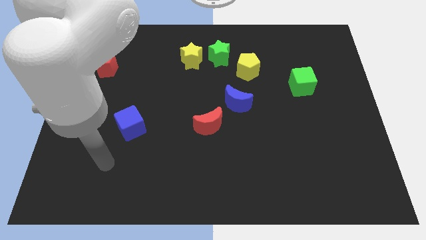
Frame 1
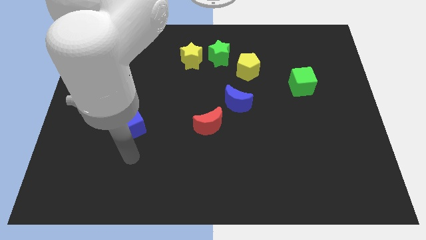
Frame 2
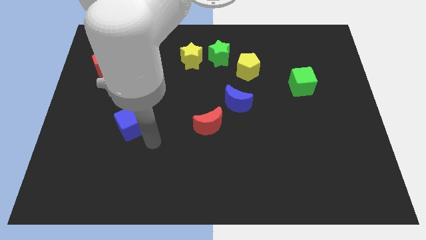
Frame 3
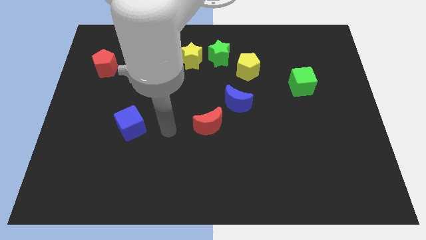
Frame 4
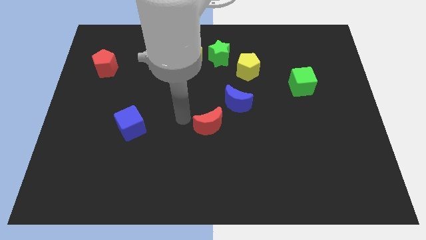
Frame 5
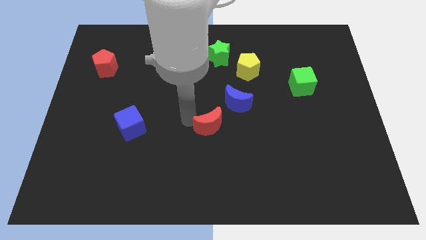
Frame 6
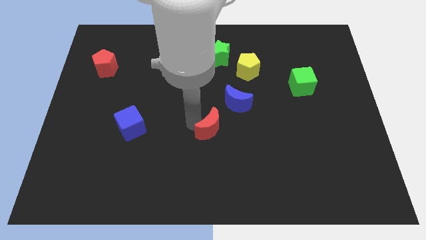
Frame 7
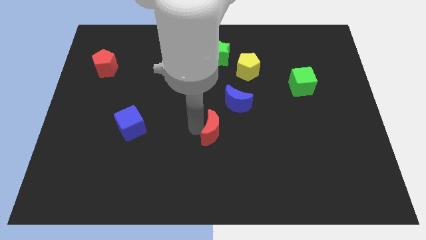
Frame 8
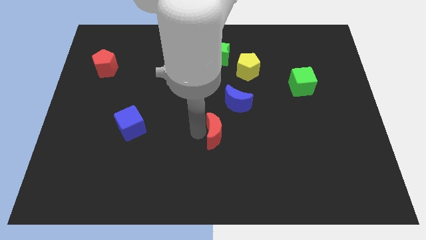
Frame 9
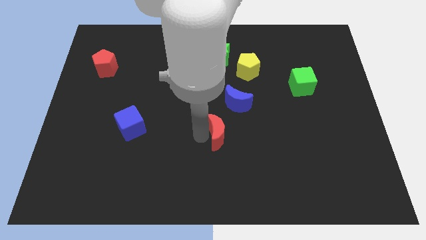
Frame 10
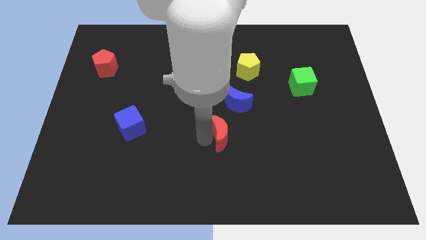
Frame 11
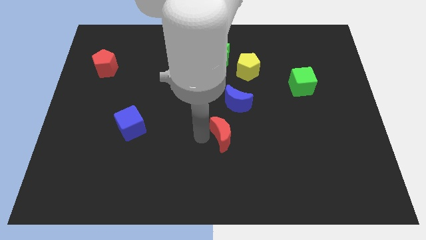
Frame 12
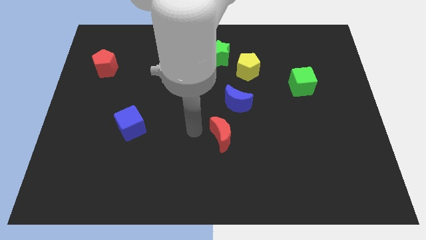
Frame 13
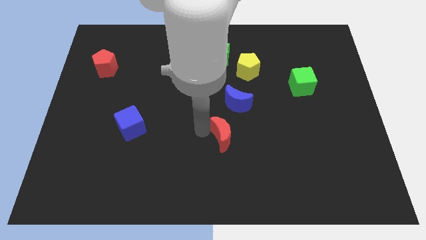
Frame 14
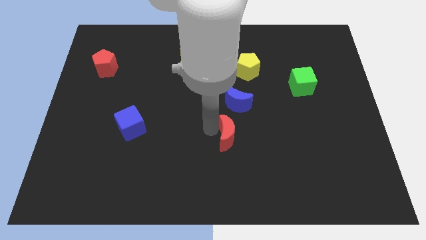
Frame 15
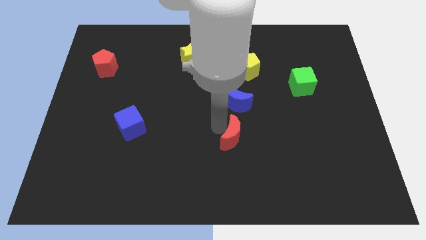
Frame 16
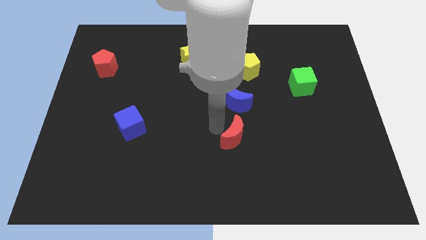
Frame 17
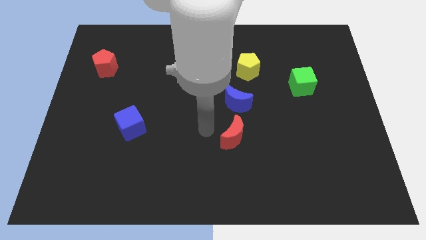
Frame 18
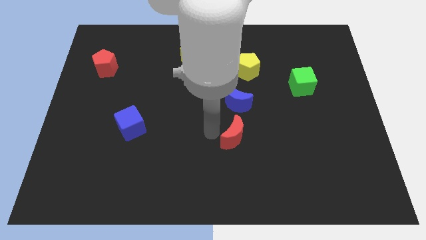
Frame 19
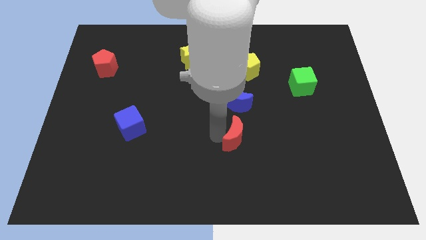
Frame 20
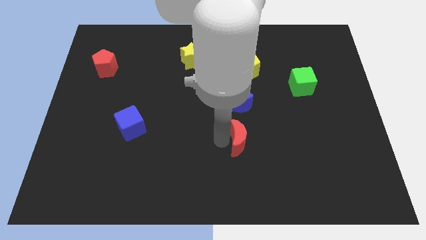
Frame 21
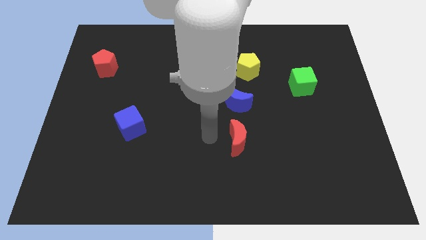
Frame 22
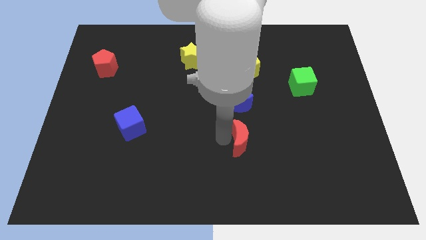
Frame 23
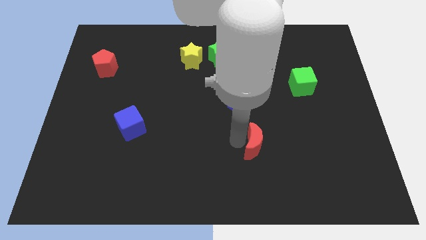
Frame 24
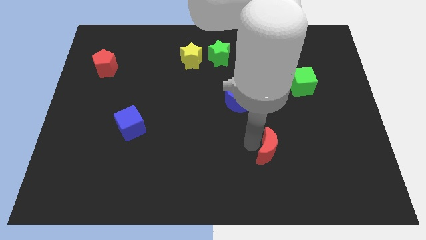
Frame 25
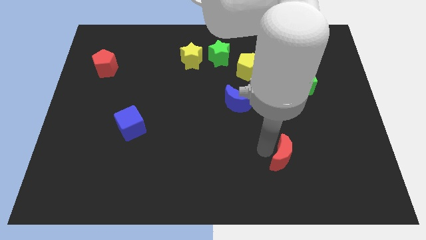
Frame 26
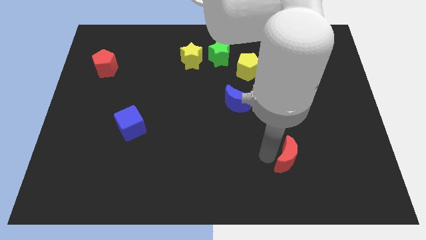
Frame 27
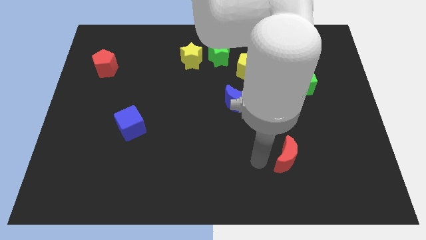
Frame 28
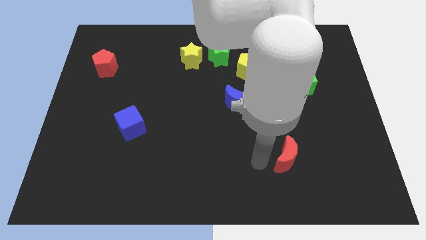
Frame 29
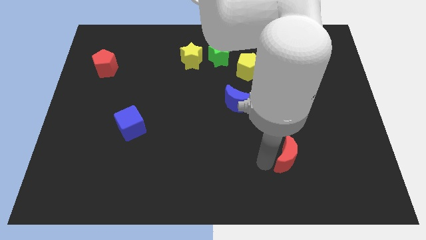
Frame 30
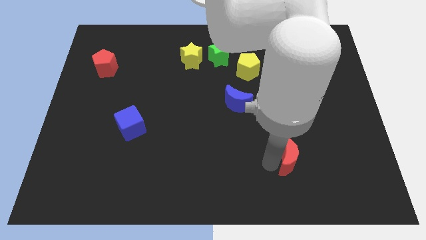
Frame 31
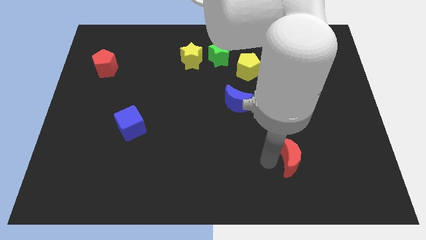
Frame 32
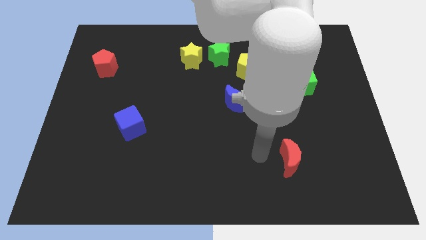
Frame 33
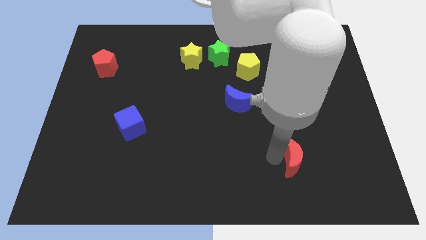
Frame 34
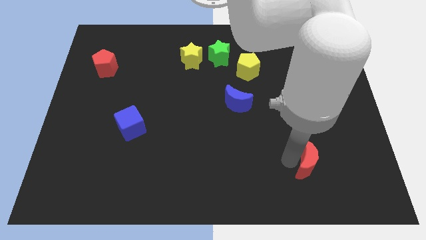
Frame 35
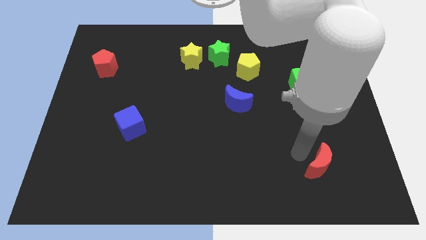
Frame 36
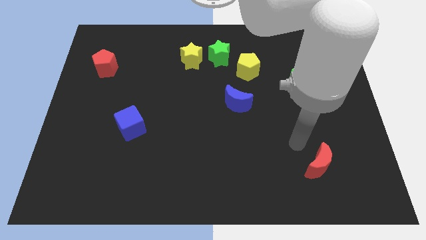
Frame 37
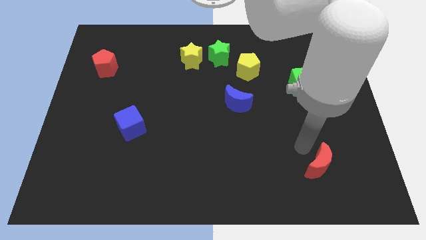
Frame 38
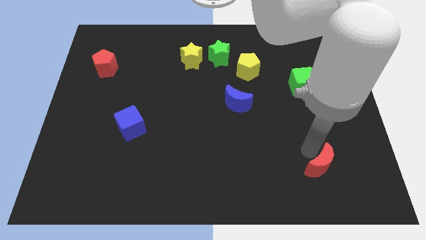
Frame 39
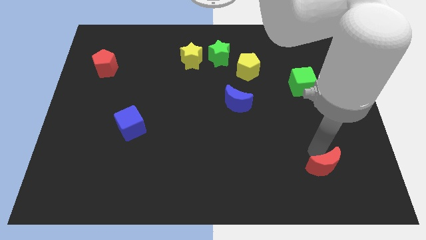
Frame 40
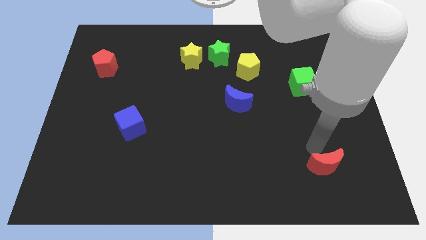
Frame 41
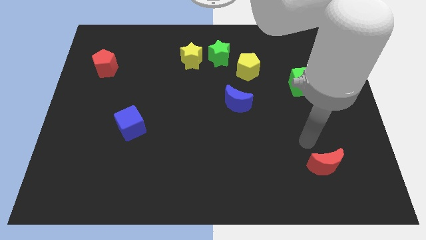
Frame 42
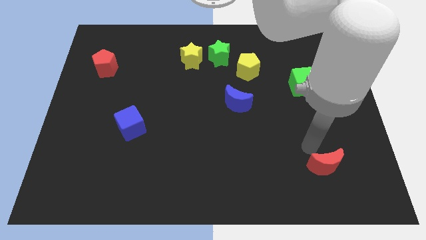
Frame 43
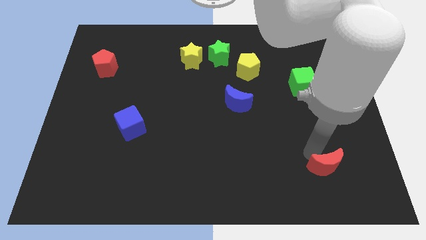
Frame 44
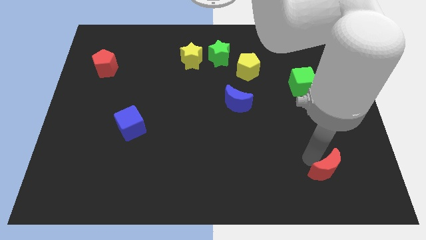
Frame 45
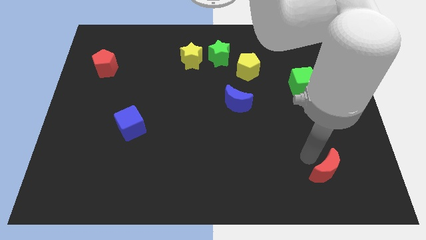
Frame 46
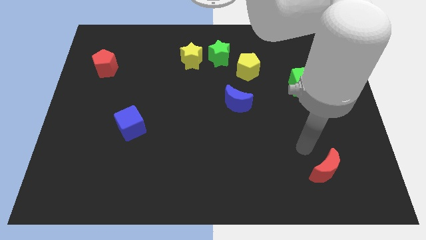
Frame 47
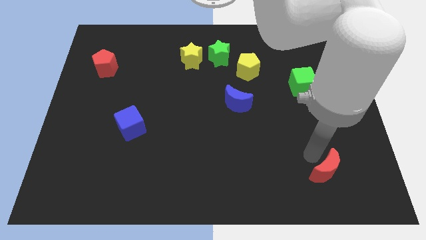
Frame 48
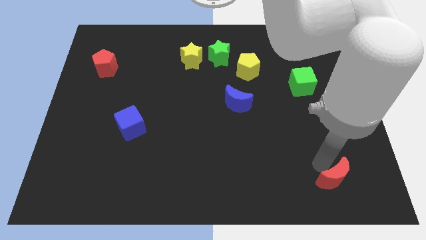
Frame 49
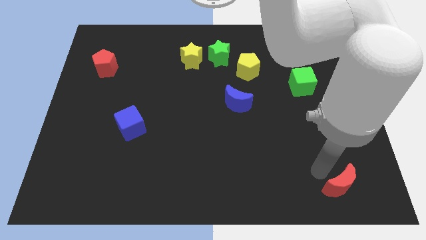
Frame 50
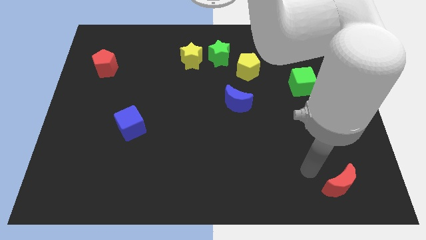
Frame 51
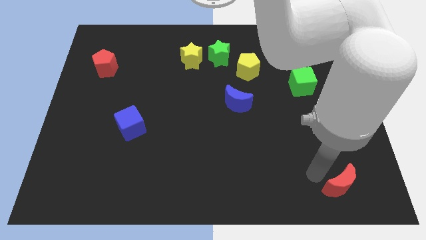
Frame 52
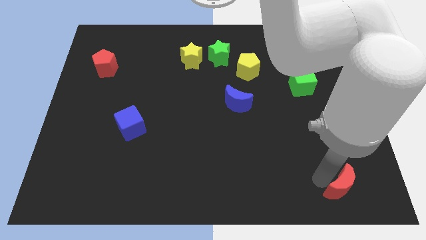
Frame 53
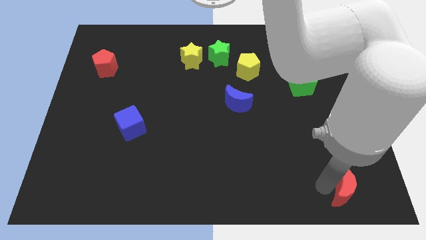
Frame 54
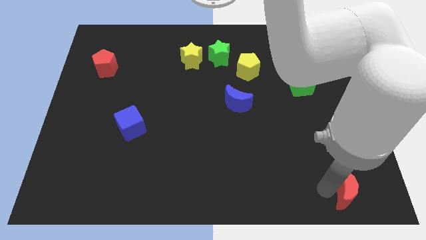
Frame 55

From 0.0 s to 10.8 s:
put the red moon to the bottom right corner

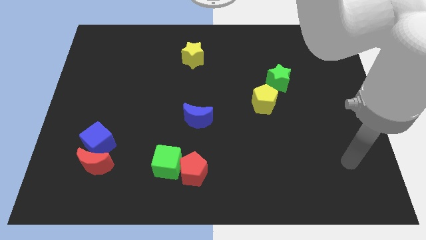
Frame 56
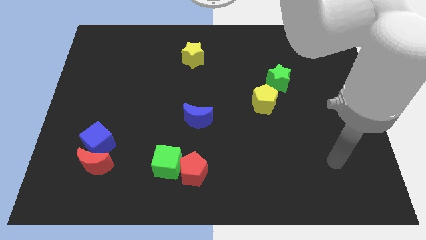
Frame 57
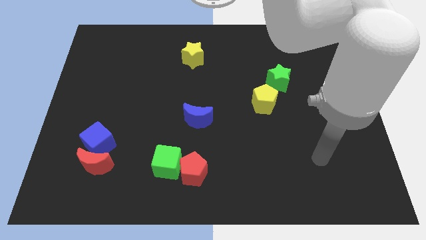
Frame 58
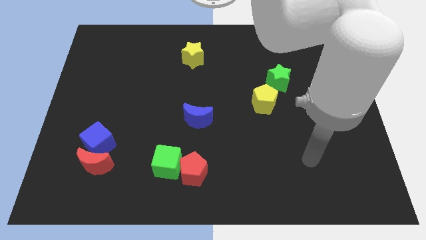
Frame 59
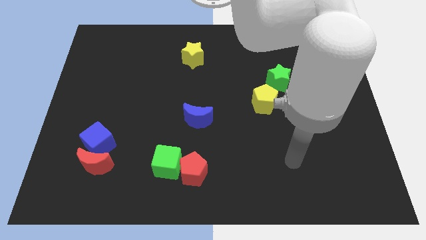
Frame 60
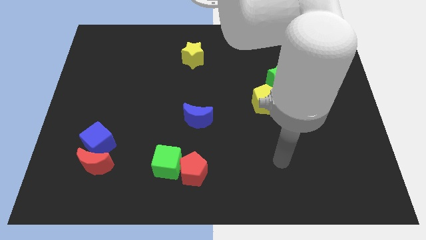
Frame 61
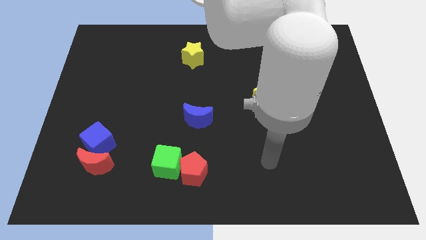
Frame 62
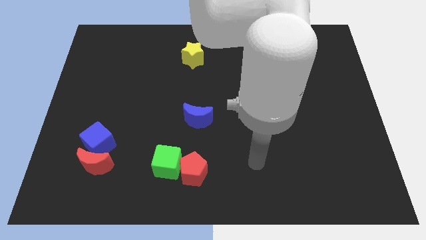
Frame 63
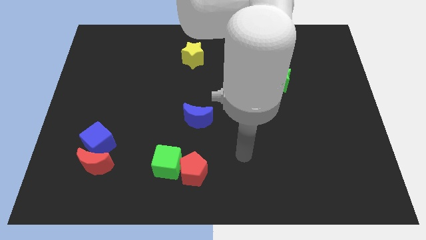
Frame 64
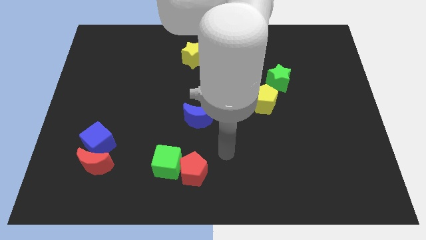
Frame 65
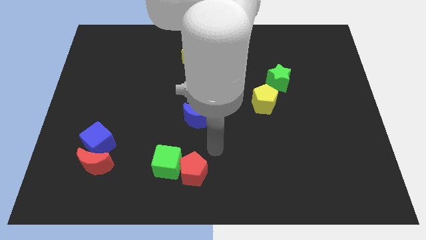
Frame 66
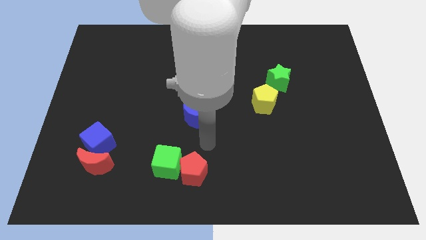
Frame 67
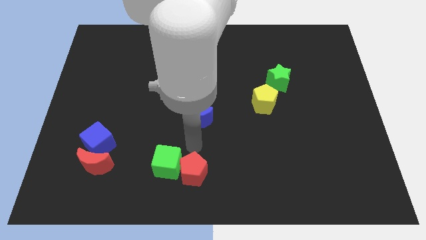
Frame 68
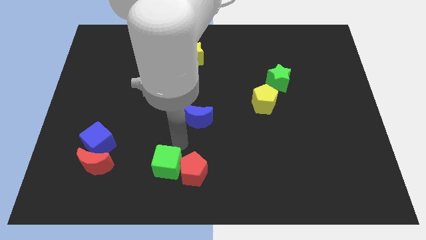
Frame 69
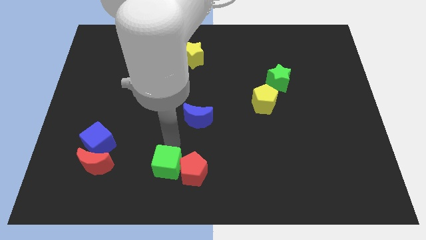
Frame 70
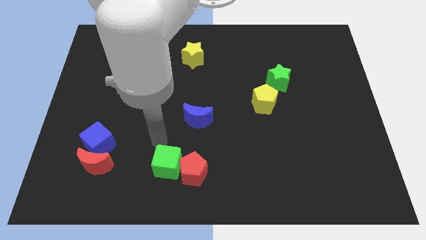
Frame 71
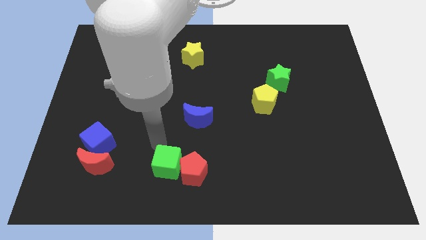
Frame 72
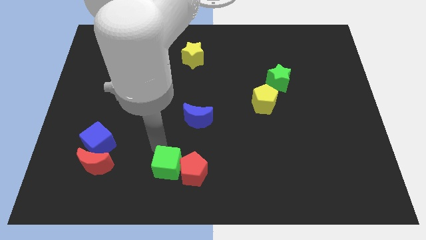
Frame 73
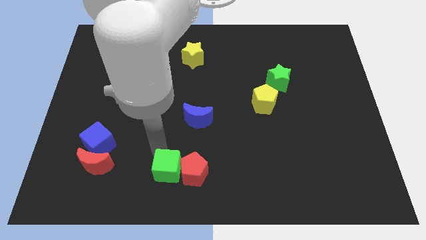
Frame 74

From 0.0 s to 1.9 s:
slide the green cube to the bottom
